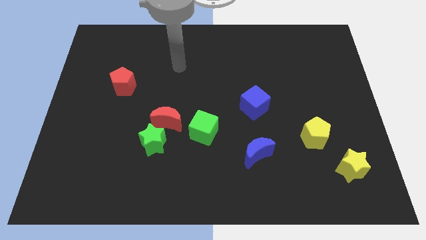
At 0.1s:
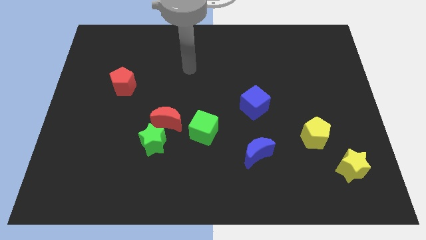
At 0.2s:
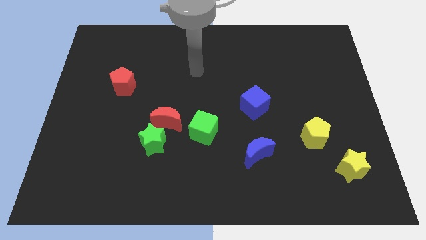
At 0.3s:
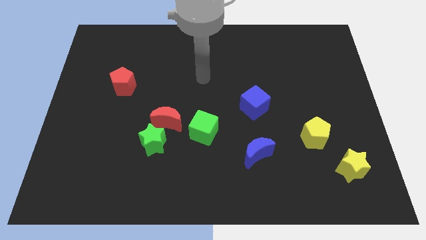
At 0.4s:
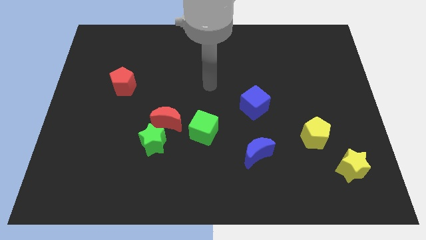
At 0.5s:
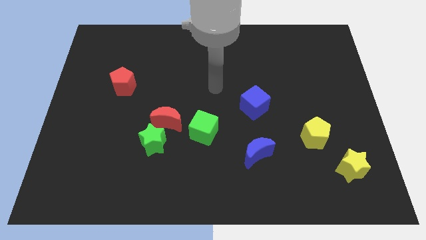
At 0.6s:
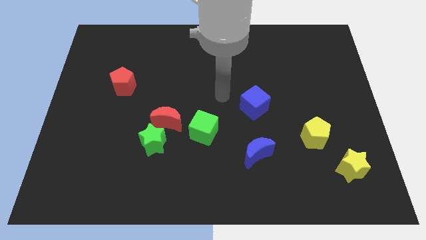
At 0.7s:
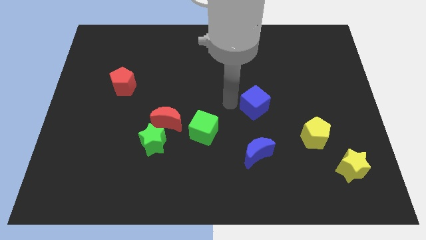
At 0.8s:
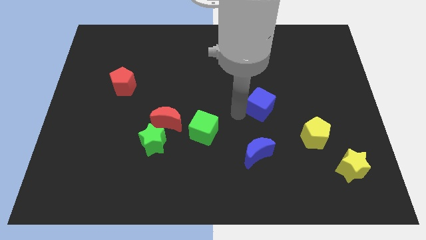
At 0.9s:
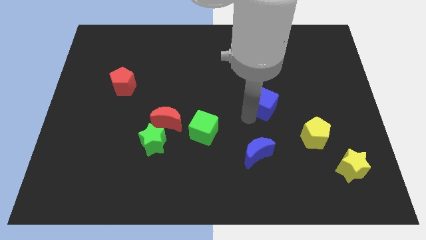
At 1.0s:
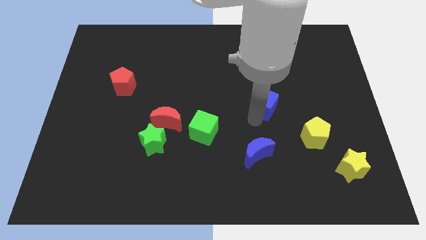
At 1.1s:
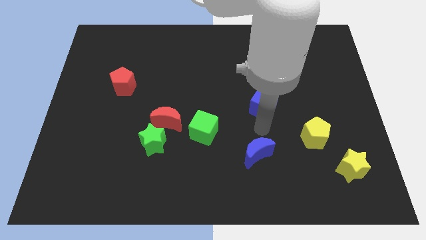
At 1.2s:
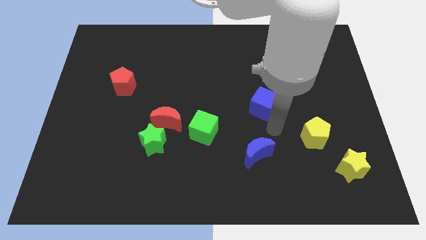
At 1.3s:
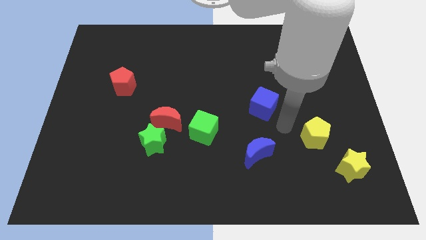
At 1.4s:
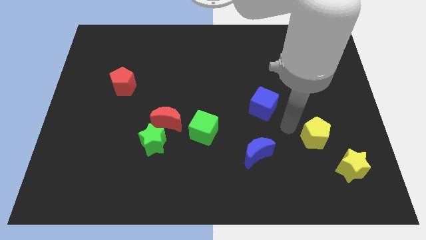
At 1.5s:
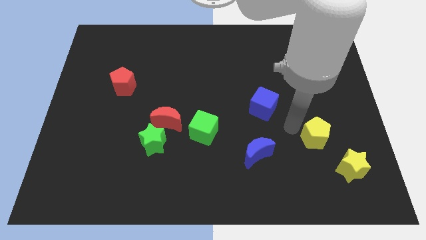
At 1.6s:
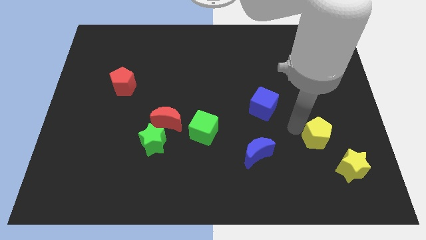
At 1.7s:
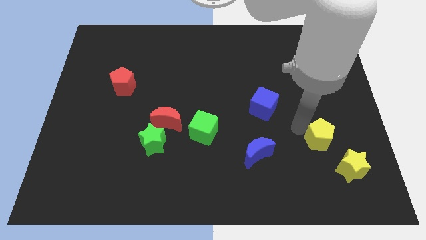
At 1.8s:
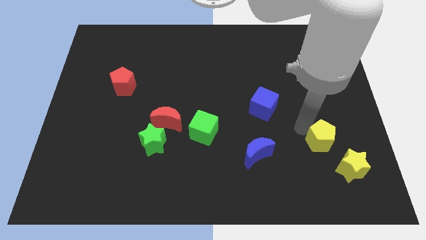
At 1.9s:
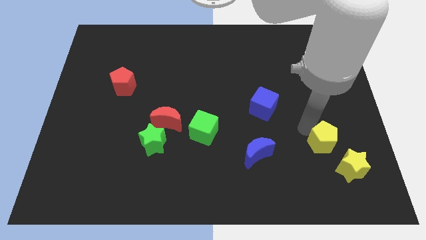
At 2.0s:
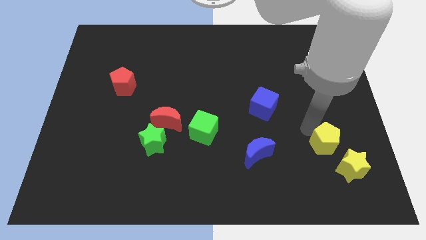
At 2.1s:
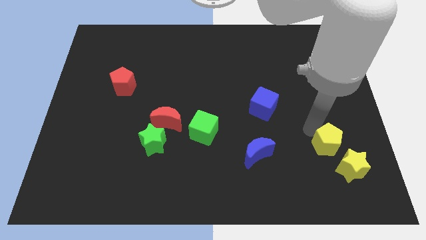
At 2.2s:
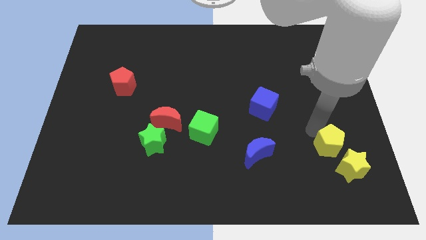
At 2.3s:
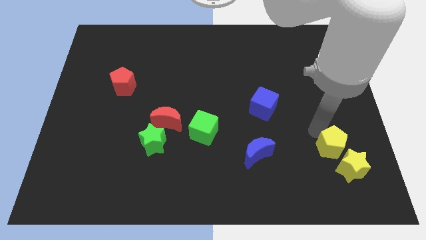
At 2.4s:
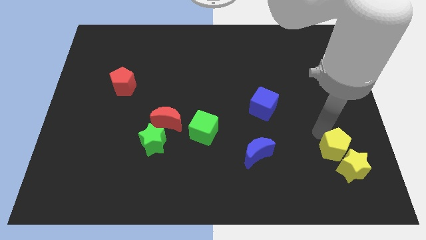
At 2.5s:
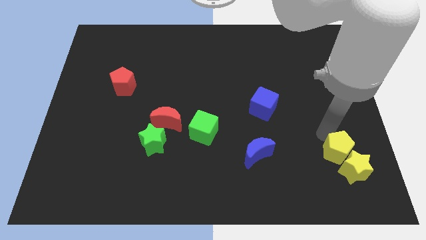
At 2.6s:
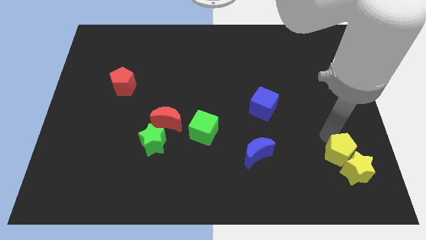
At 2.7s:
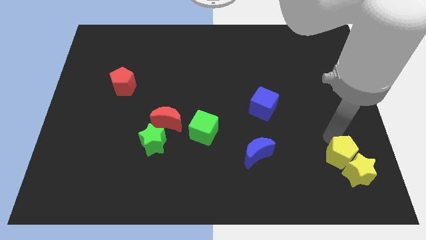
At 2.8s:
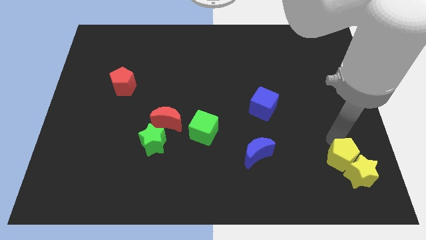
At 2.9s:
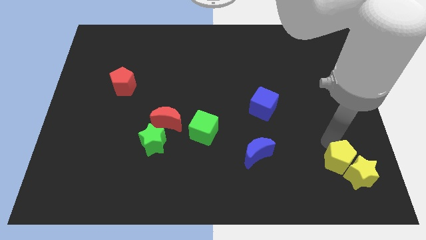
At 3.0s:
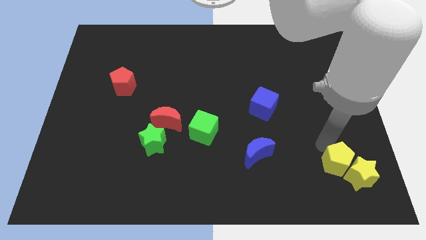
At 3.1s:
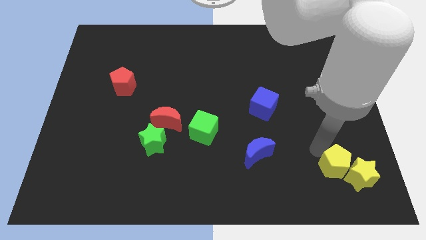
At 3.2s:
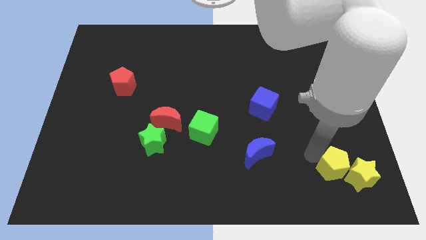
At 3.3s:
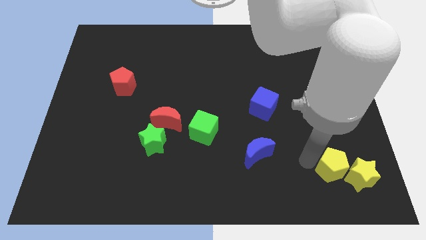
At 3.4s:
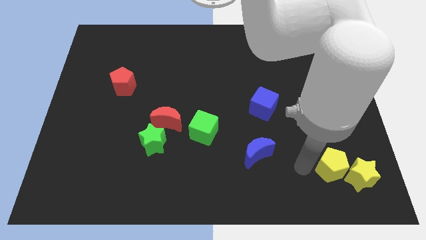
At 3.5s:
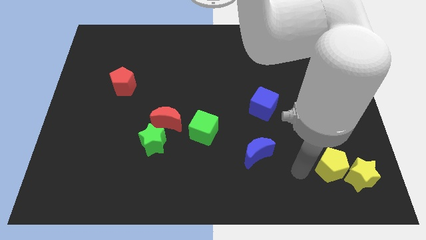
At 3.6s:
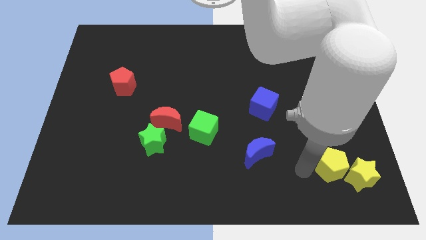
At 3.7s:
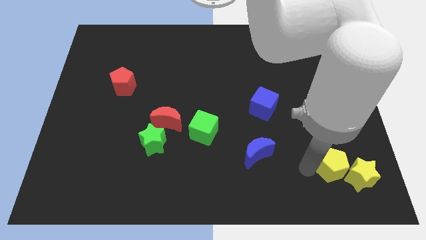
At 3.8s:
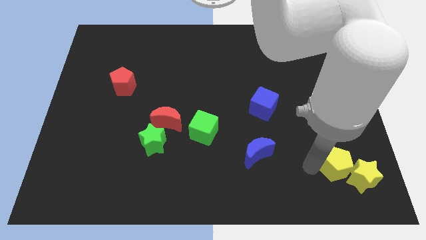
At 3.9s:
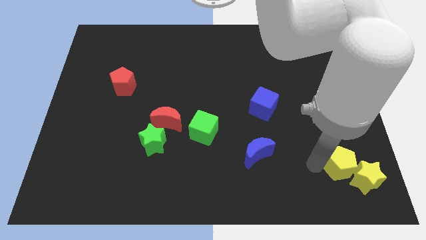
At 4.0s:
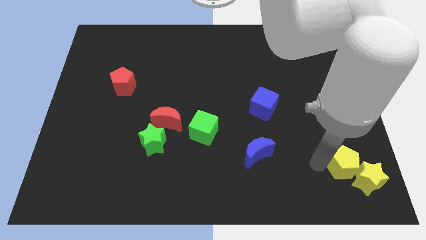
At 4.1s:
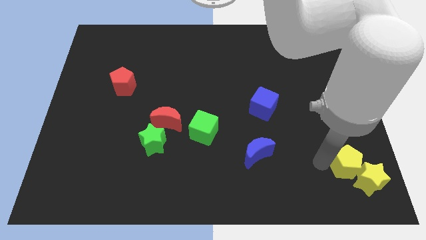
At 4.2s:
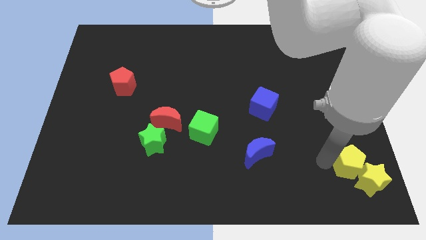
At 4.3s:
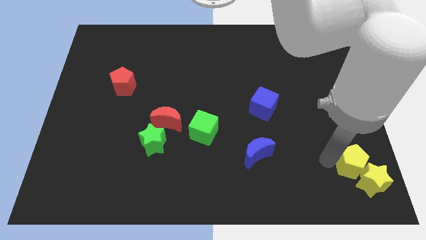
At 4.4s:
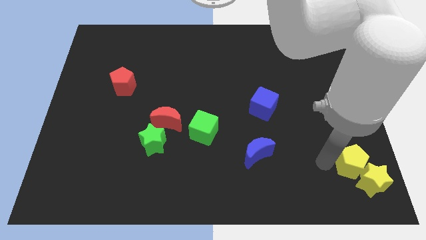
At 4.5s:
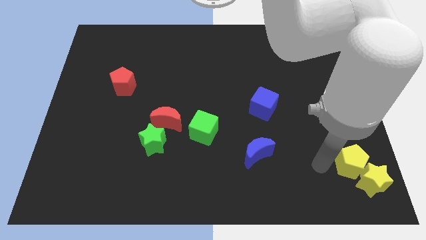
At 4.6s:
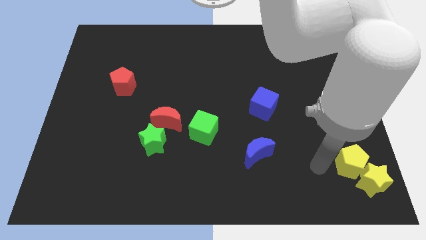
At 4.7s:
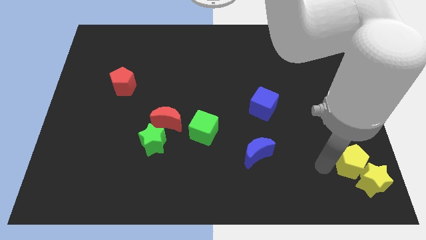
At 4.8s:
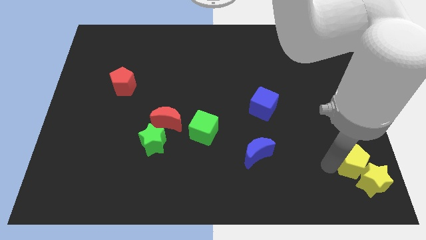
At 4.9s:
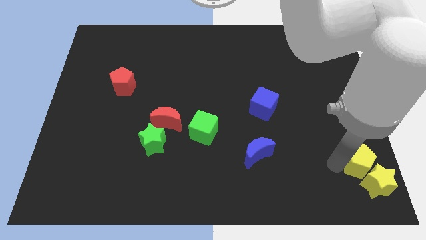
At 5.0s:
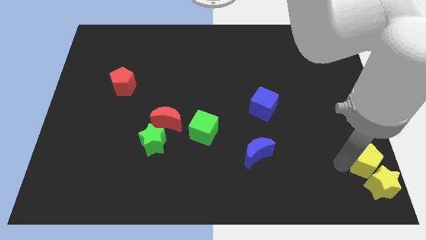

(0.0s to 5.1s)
slide the yellow pentagon to the bottom right

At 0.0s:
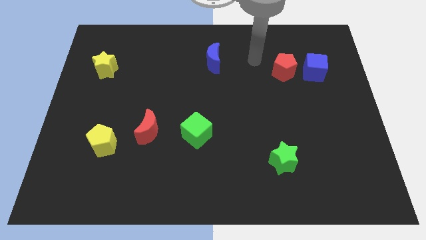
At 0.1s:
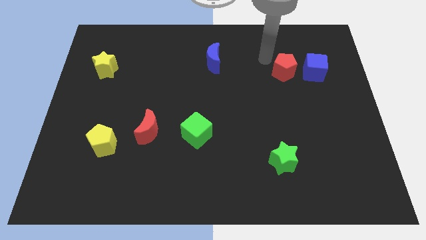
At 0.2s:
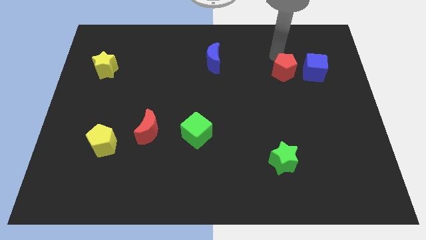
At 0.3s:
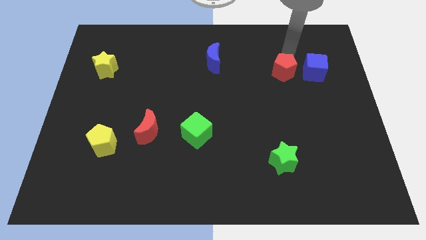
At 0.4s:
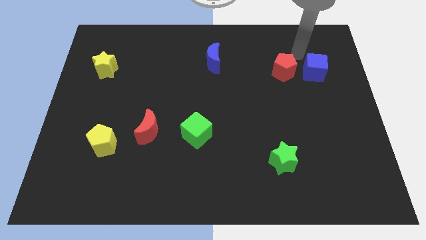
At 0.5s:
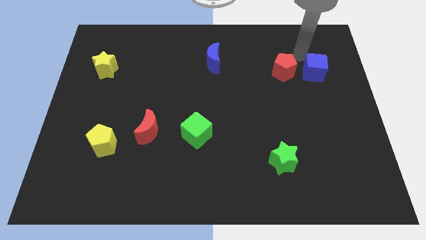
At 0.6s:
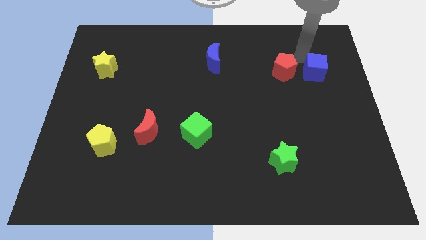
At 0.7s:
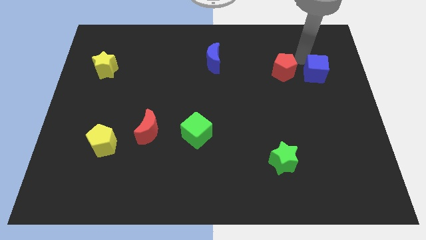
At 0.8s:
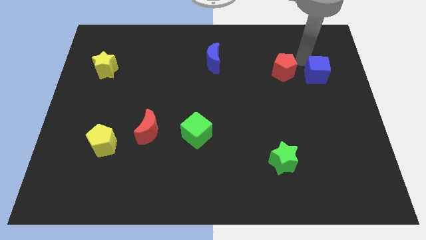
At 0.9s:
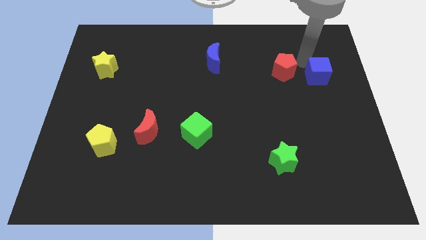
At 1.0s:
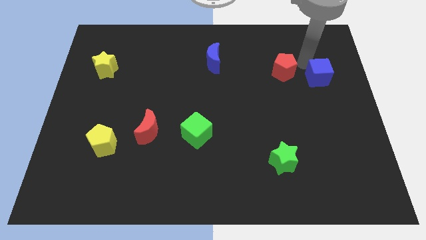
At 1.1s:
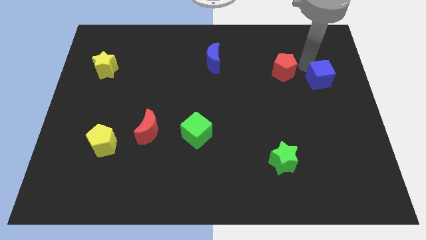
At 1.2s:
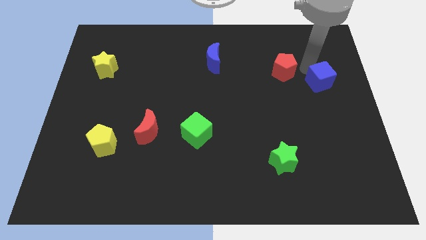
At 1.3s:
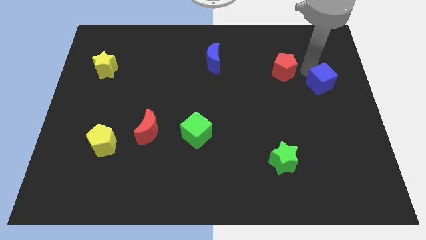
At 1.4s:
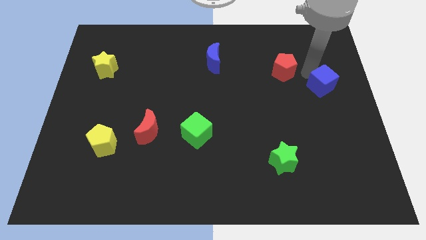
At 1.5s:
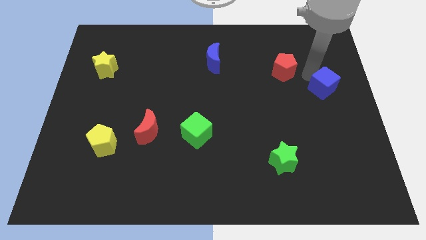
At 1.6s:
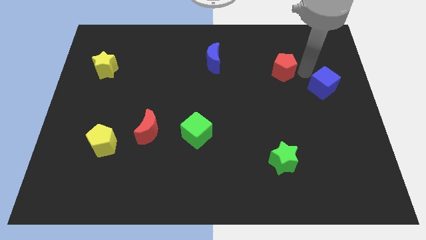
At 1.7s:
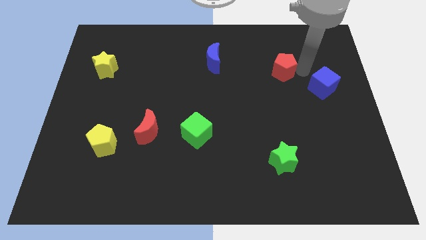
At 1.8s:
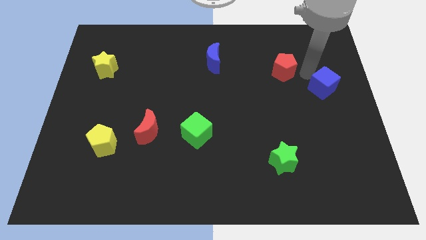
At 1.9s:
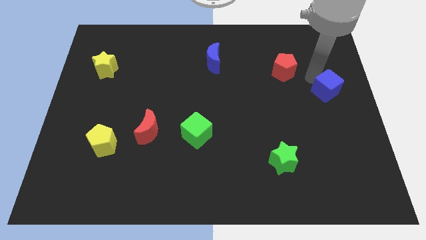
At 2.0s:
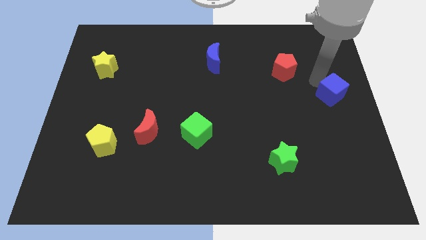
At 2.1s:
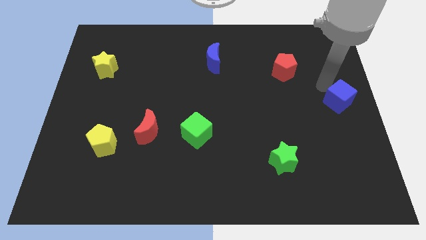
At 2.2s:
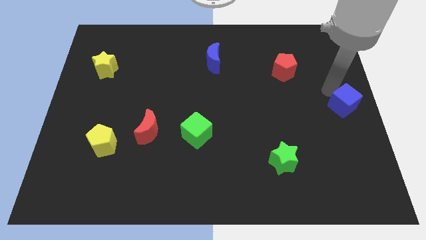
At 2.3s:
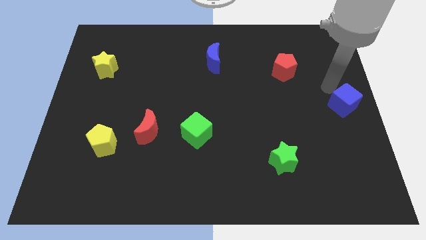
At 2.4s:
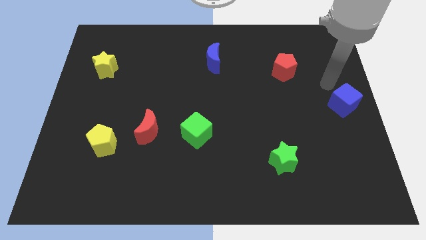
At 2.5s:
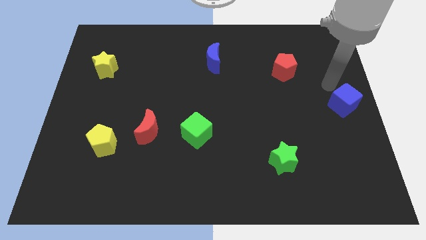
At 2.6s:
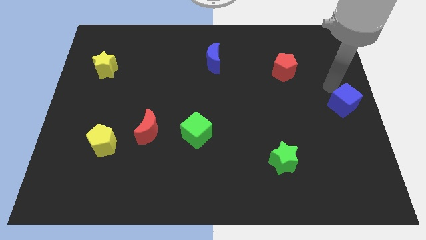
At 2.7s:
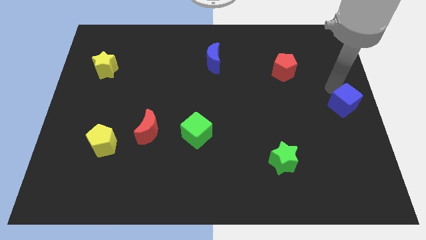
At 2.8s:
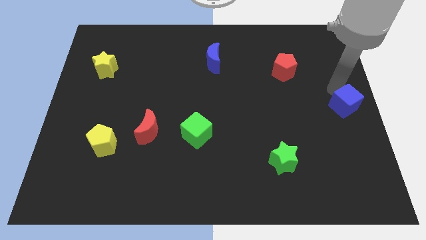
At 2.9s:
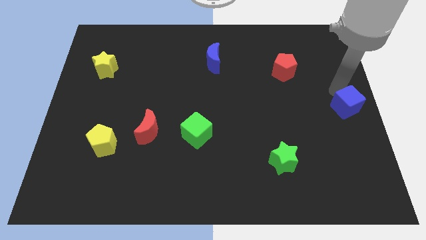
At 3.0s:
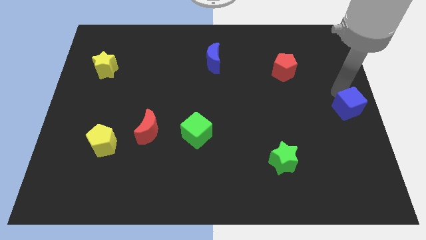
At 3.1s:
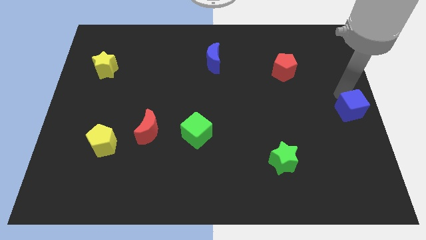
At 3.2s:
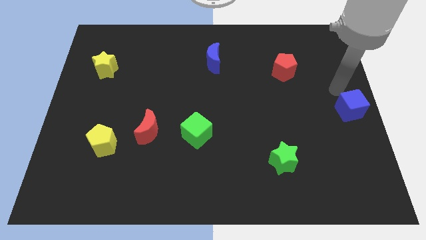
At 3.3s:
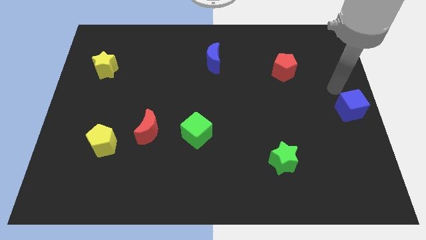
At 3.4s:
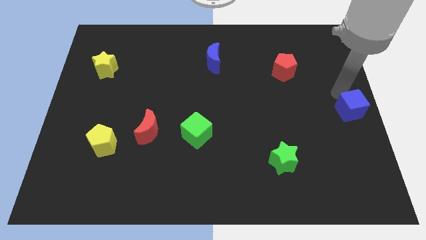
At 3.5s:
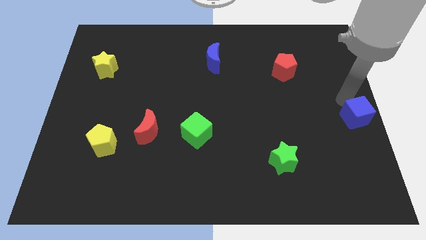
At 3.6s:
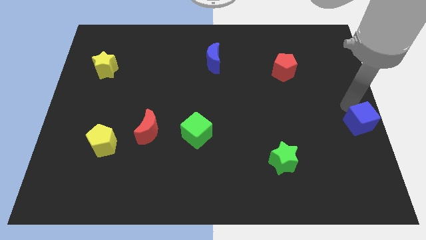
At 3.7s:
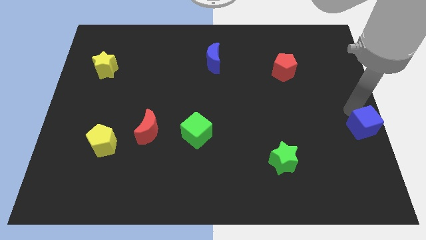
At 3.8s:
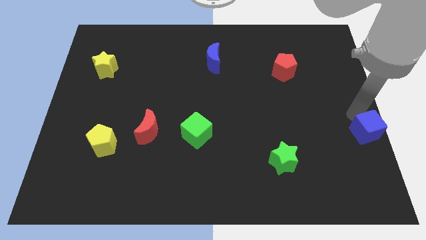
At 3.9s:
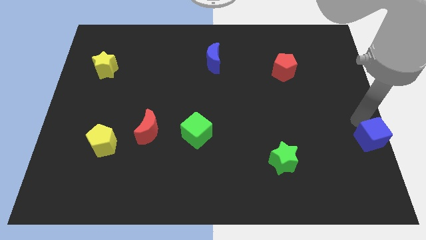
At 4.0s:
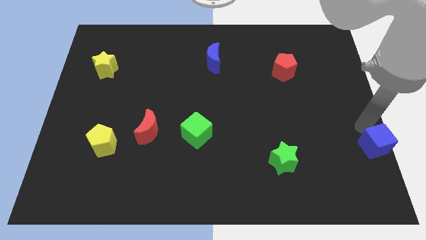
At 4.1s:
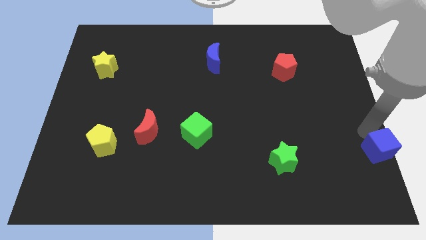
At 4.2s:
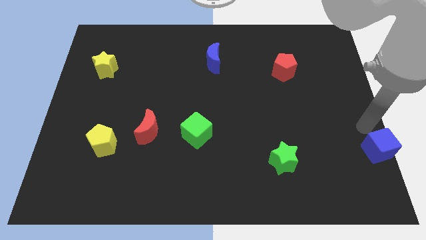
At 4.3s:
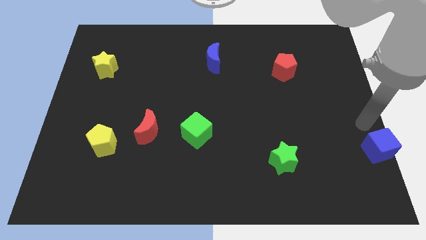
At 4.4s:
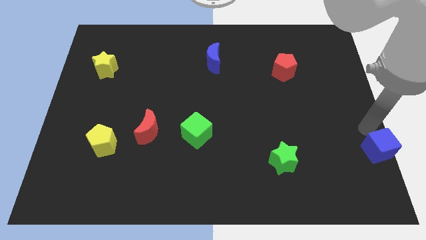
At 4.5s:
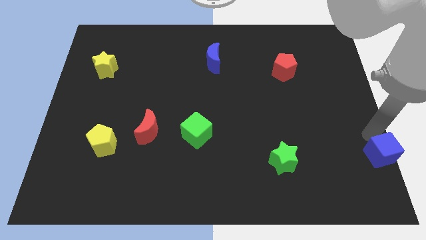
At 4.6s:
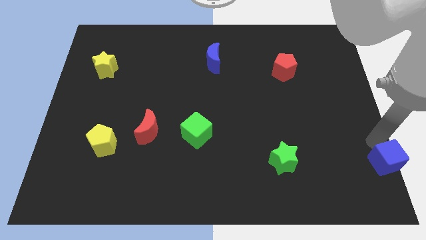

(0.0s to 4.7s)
put the blue cube to the bottom right
